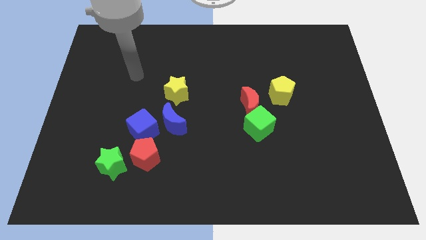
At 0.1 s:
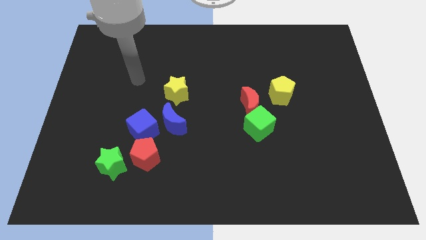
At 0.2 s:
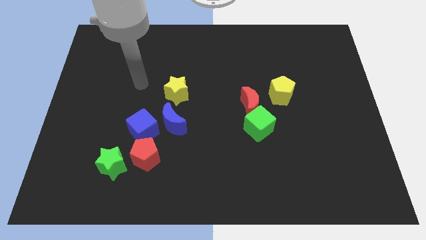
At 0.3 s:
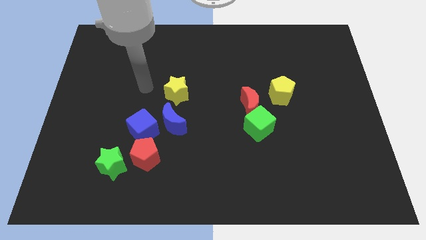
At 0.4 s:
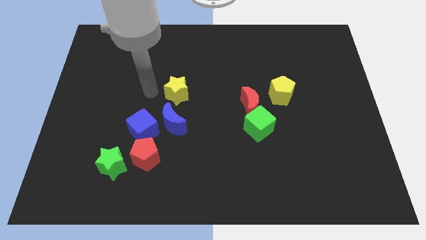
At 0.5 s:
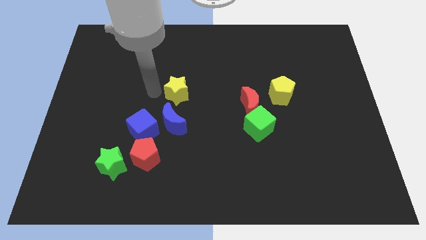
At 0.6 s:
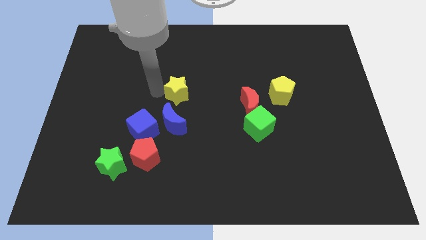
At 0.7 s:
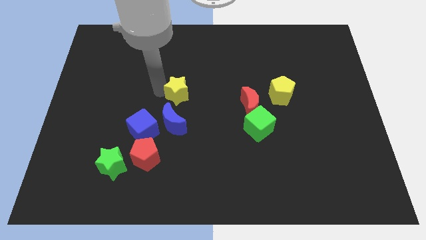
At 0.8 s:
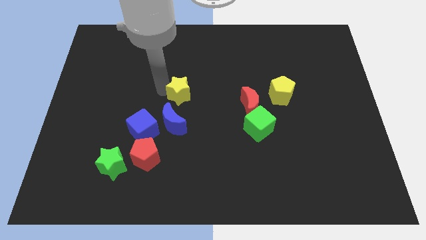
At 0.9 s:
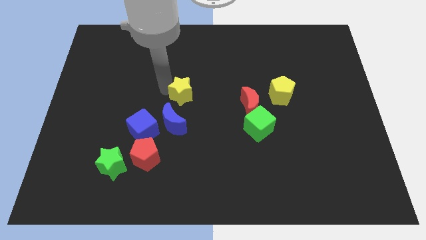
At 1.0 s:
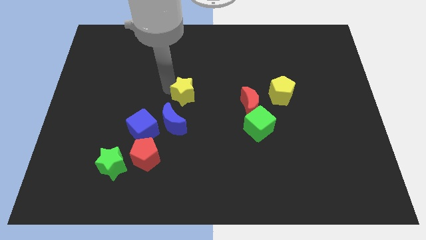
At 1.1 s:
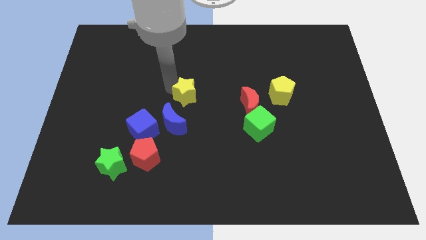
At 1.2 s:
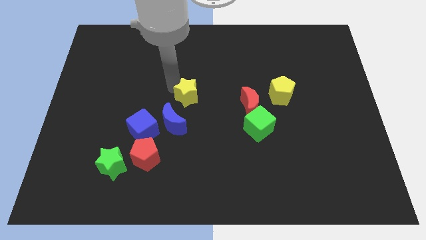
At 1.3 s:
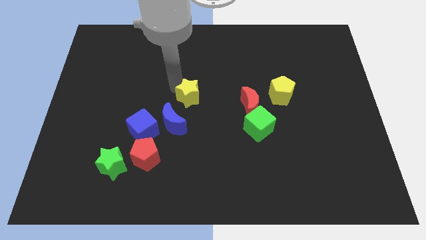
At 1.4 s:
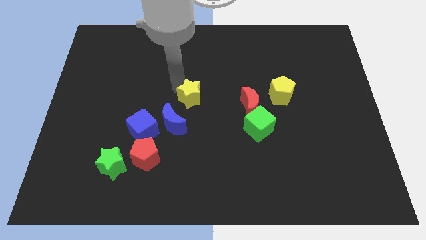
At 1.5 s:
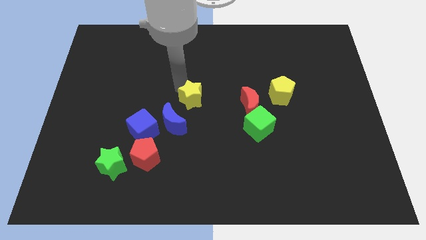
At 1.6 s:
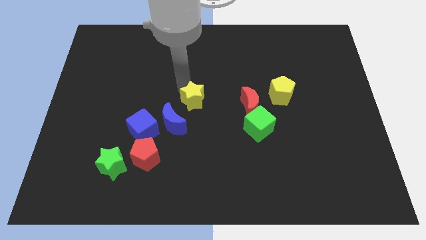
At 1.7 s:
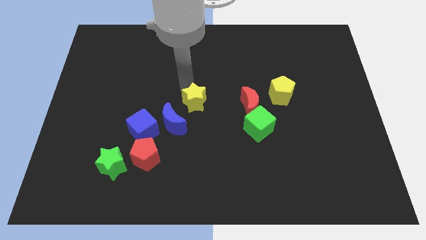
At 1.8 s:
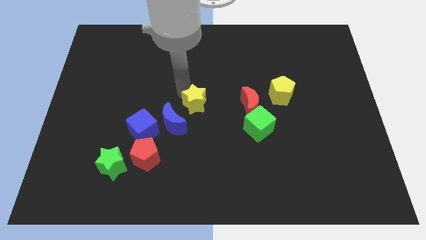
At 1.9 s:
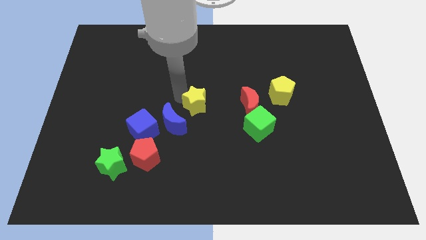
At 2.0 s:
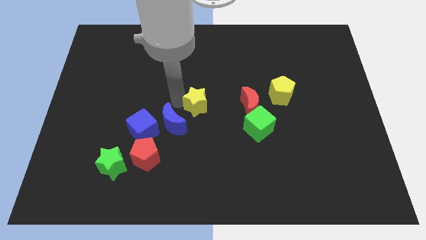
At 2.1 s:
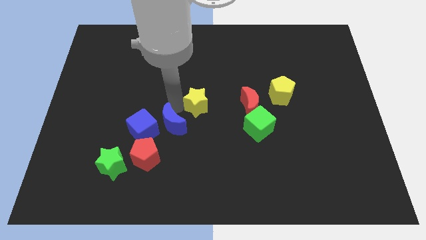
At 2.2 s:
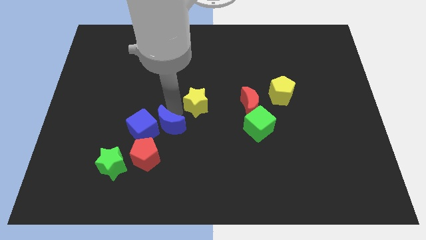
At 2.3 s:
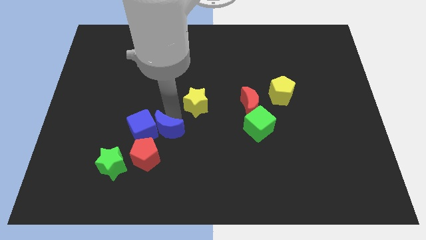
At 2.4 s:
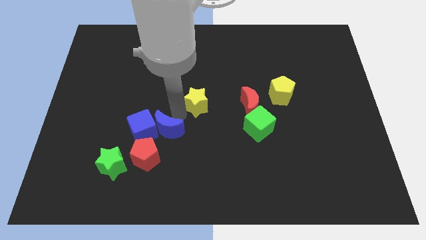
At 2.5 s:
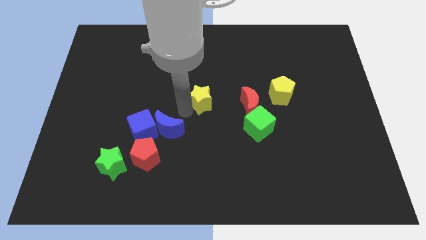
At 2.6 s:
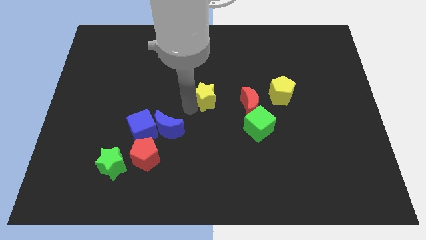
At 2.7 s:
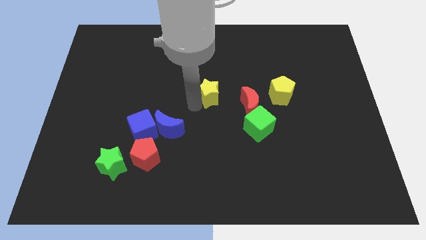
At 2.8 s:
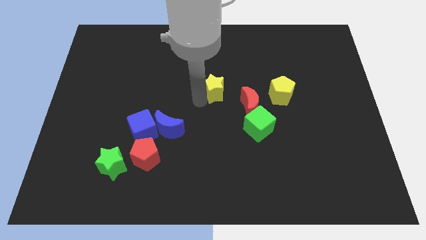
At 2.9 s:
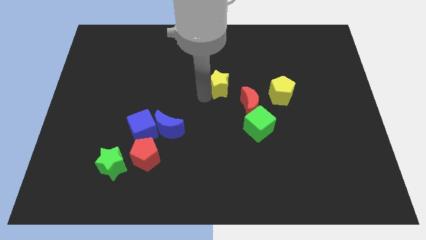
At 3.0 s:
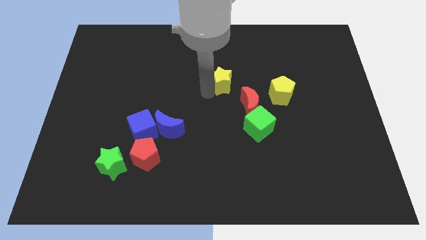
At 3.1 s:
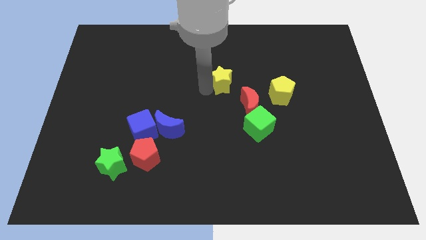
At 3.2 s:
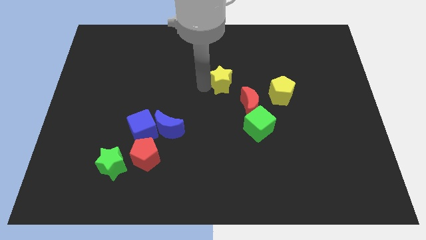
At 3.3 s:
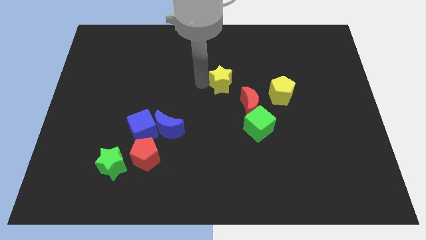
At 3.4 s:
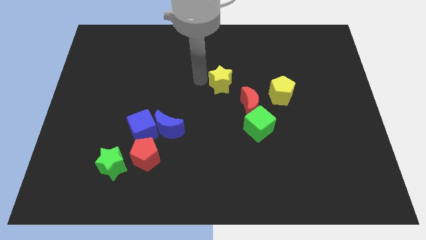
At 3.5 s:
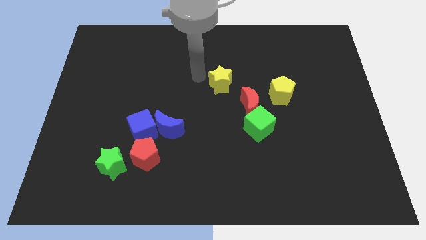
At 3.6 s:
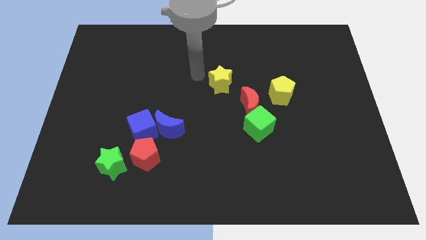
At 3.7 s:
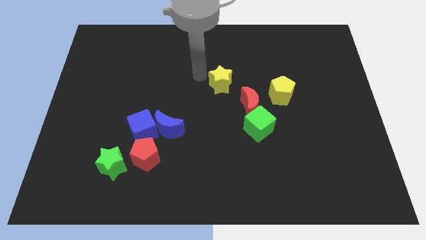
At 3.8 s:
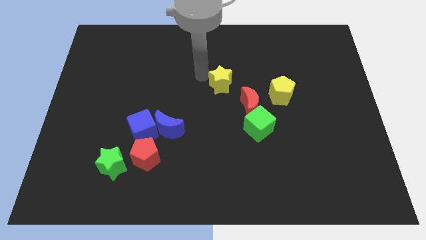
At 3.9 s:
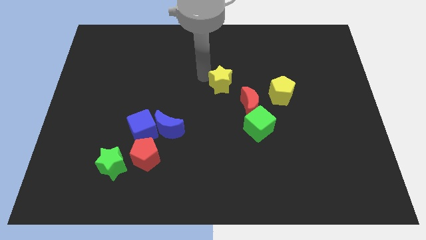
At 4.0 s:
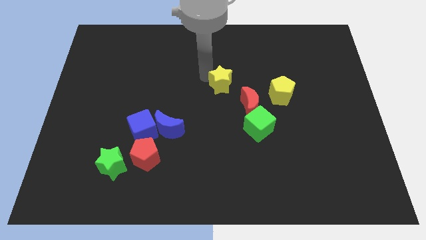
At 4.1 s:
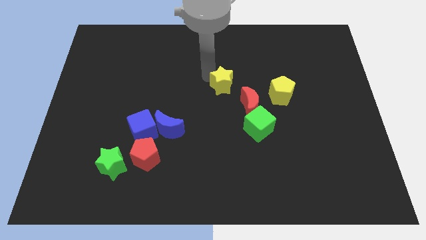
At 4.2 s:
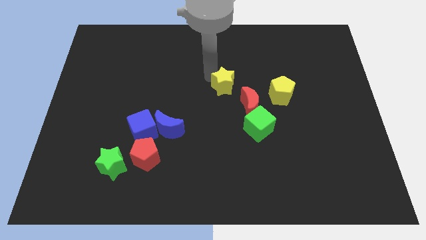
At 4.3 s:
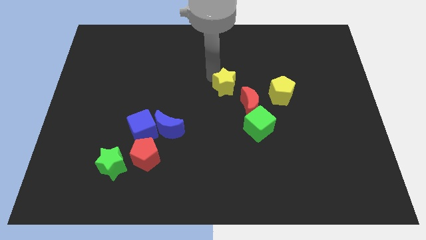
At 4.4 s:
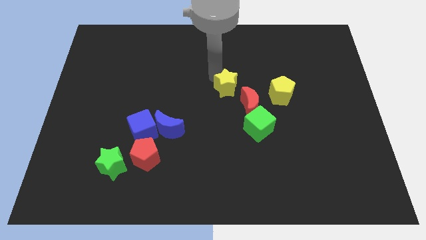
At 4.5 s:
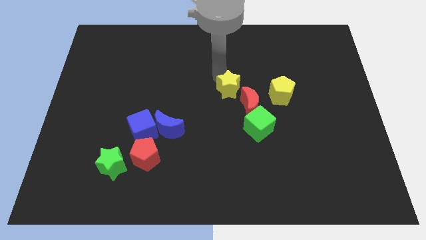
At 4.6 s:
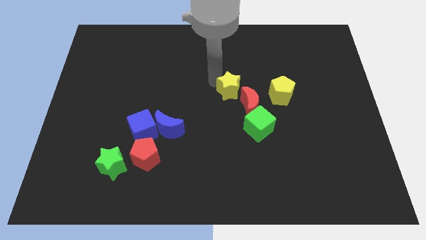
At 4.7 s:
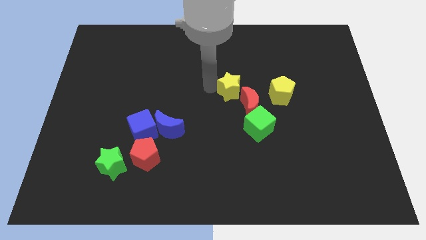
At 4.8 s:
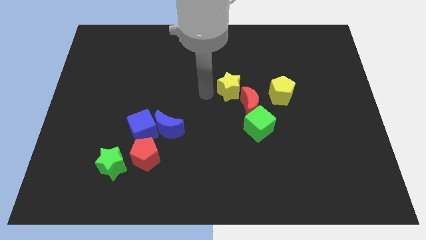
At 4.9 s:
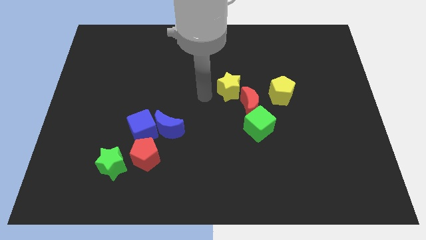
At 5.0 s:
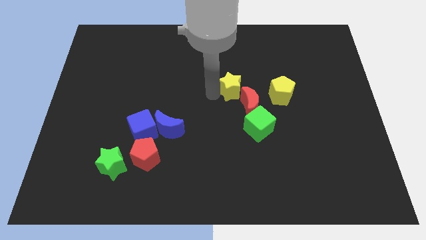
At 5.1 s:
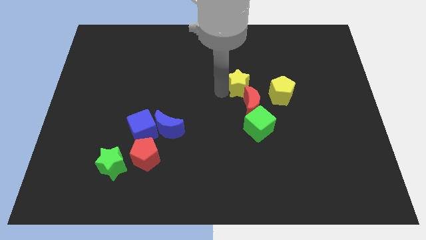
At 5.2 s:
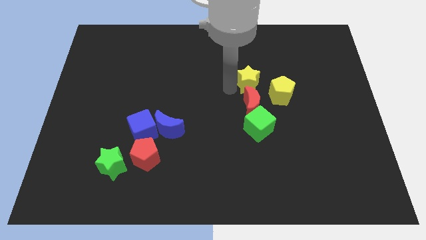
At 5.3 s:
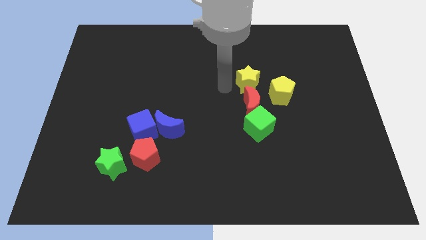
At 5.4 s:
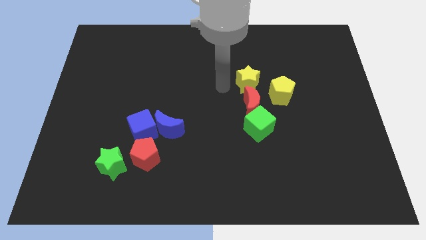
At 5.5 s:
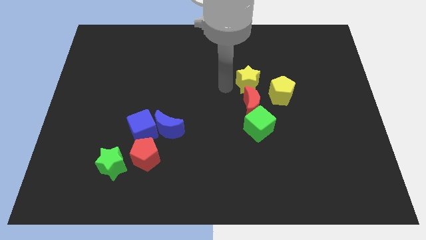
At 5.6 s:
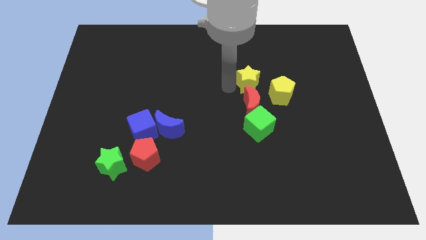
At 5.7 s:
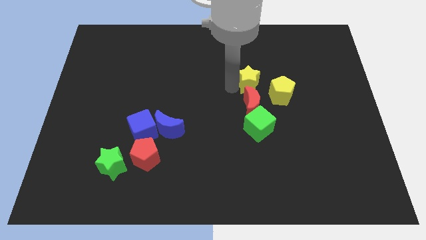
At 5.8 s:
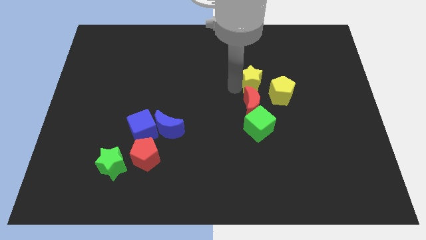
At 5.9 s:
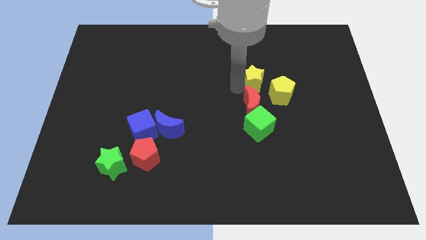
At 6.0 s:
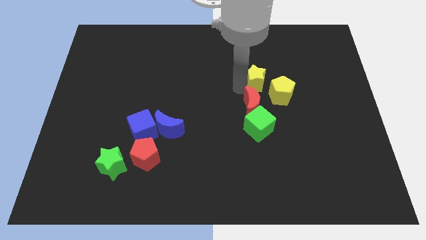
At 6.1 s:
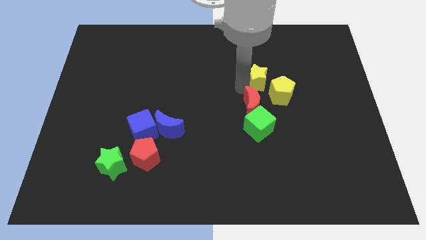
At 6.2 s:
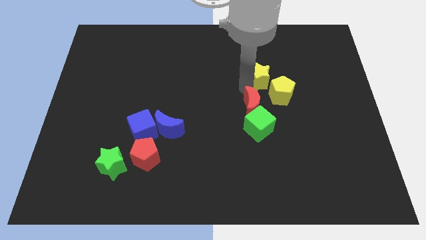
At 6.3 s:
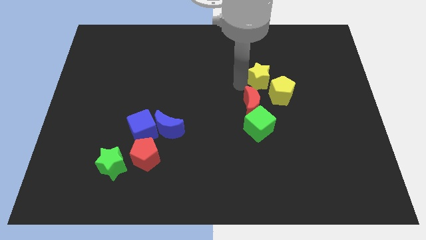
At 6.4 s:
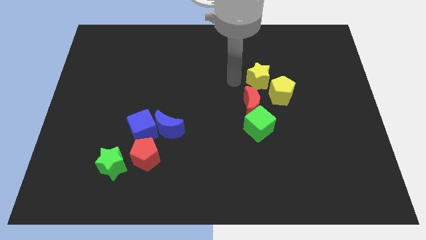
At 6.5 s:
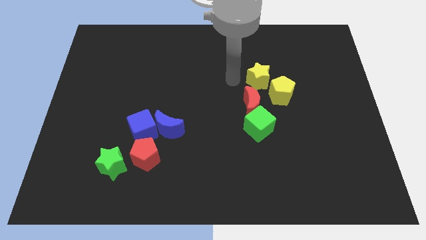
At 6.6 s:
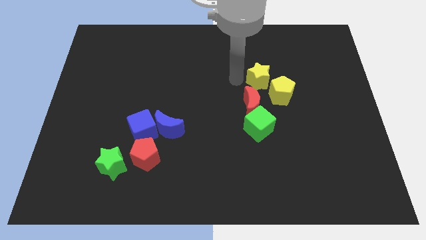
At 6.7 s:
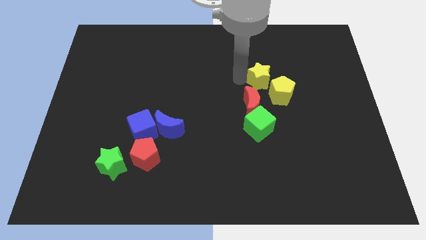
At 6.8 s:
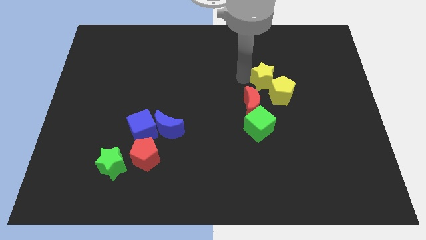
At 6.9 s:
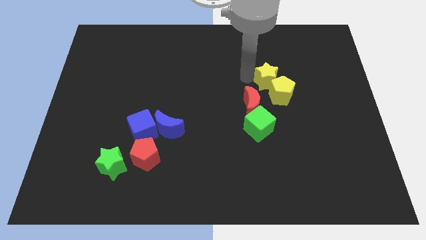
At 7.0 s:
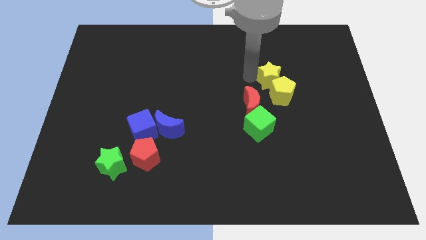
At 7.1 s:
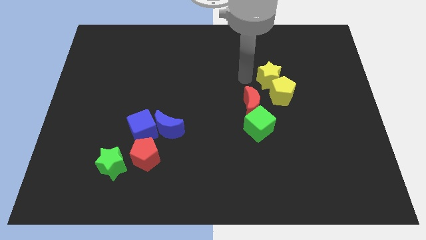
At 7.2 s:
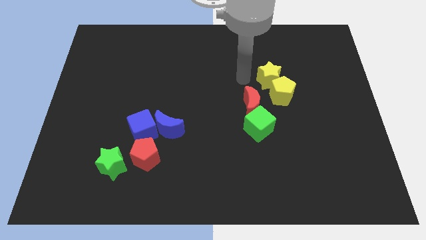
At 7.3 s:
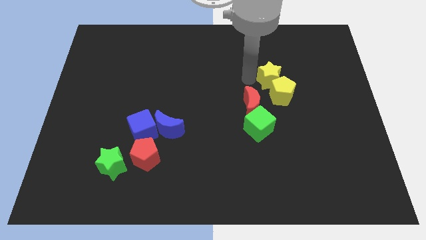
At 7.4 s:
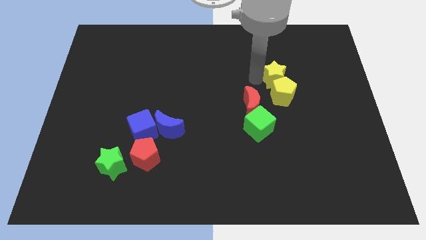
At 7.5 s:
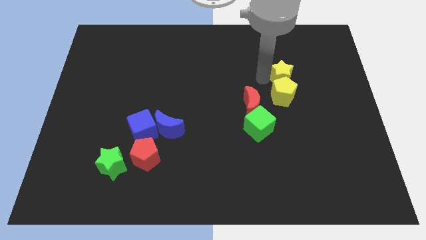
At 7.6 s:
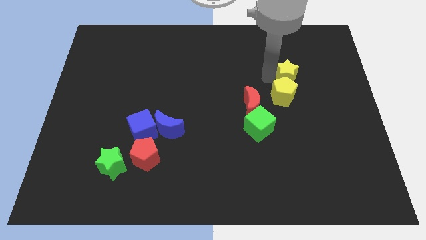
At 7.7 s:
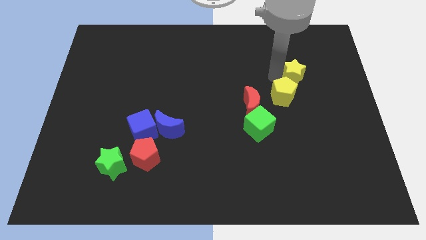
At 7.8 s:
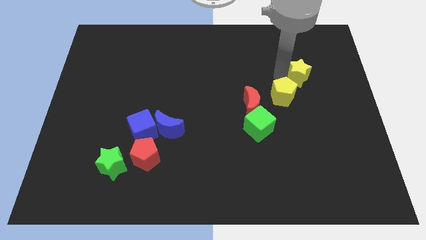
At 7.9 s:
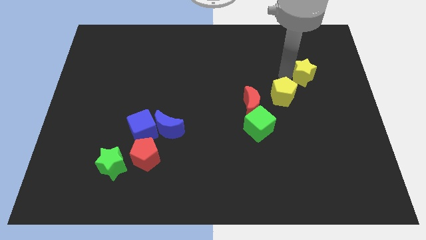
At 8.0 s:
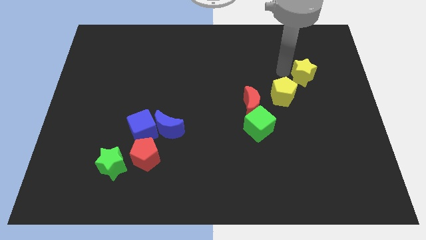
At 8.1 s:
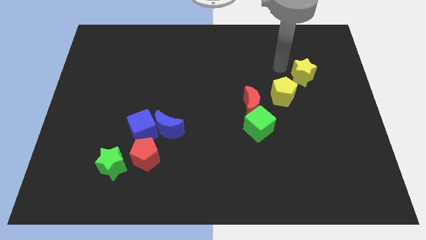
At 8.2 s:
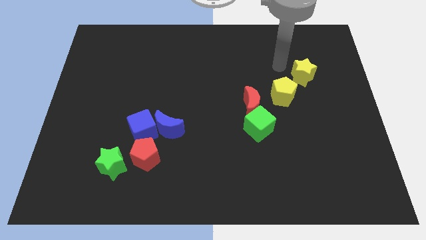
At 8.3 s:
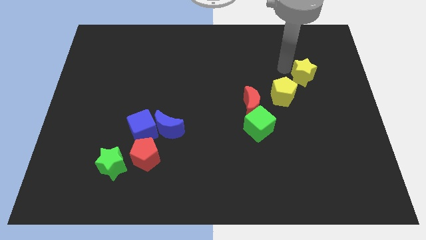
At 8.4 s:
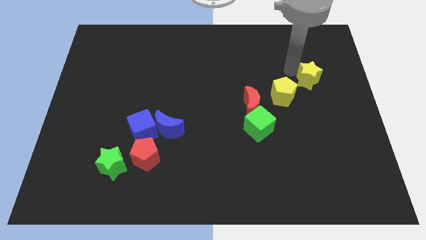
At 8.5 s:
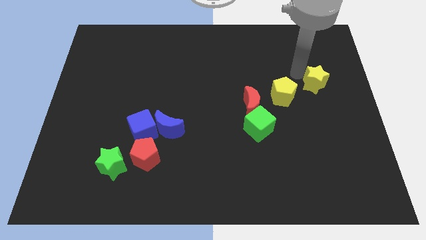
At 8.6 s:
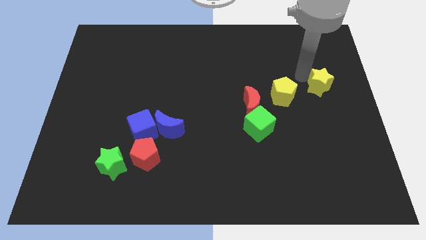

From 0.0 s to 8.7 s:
put the yellow star to the right side
